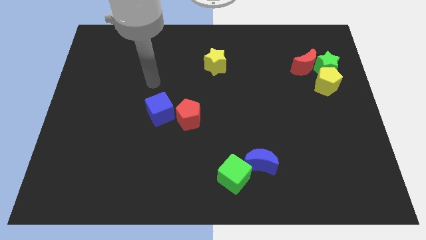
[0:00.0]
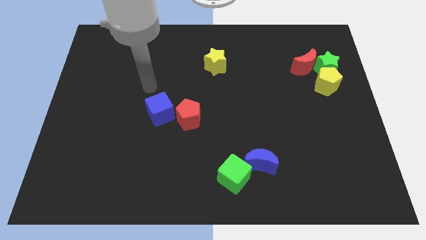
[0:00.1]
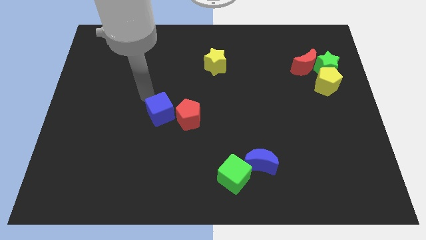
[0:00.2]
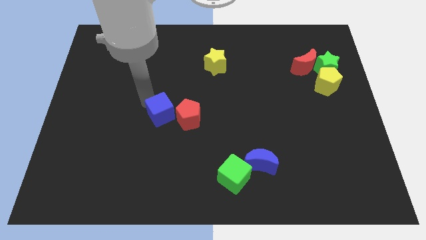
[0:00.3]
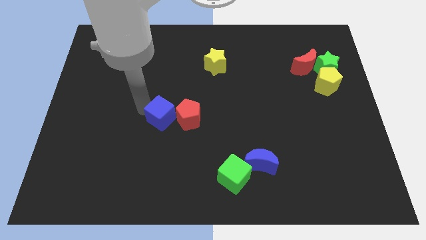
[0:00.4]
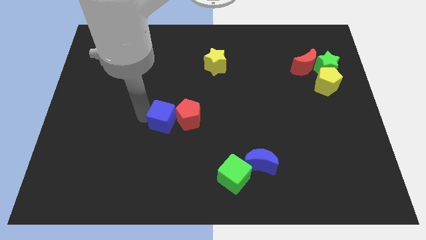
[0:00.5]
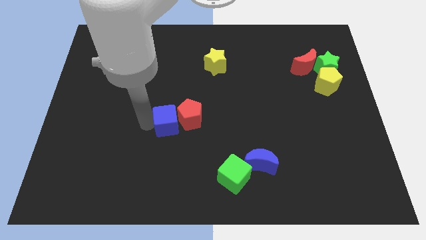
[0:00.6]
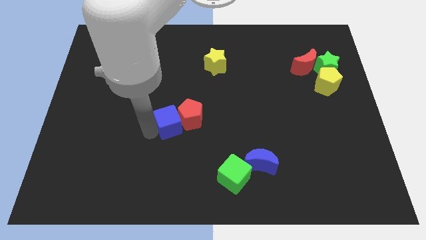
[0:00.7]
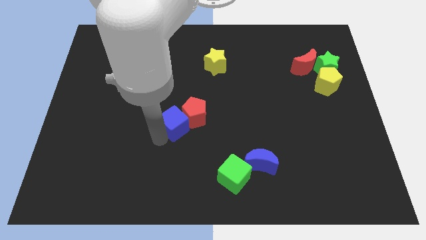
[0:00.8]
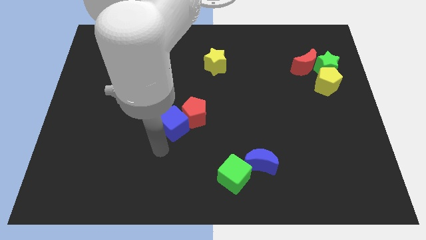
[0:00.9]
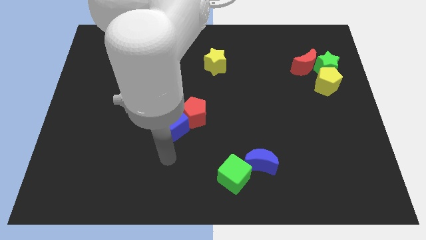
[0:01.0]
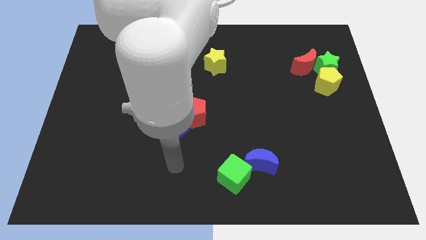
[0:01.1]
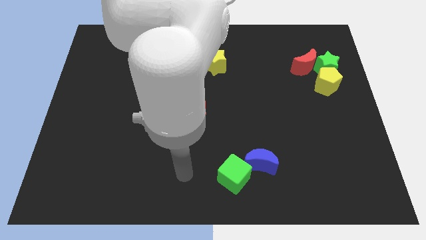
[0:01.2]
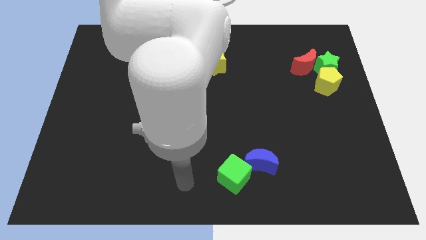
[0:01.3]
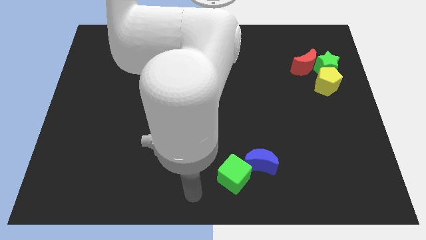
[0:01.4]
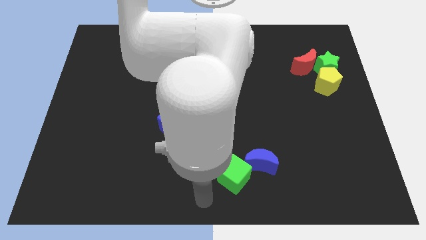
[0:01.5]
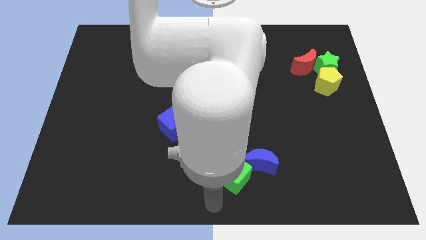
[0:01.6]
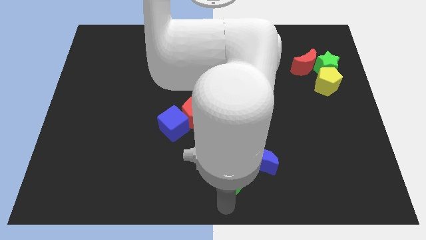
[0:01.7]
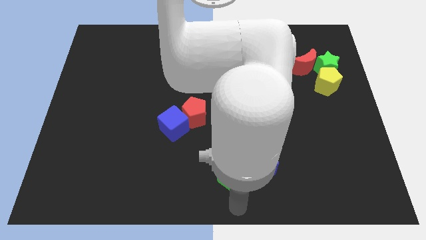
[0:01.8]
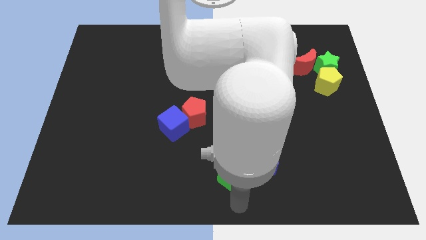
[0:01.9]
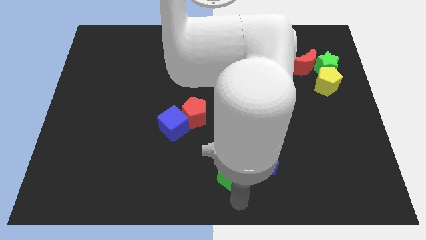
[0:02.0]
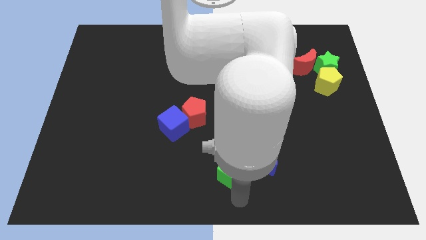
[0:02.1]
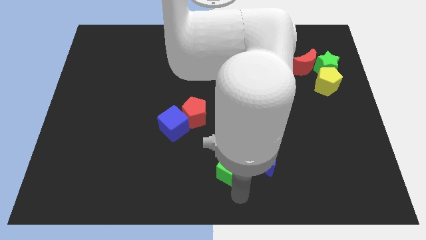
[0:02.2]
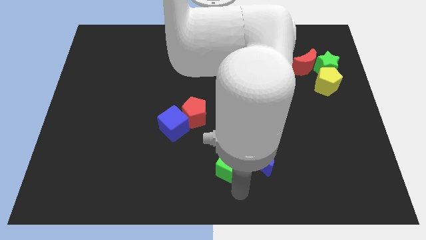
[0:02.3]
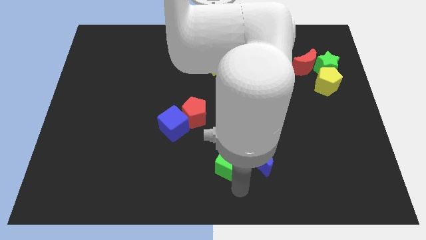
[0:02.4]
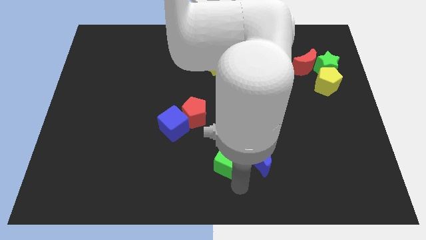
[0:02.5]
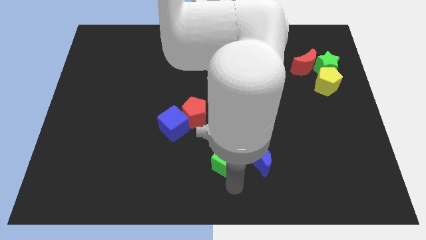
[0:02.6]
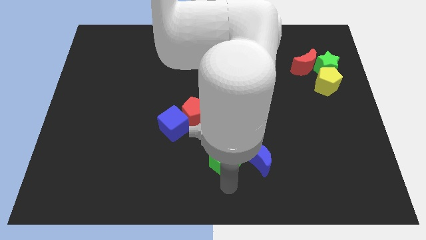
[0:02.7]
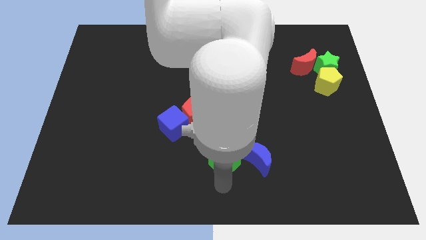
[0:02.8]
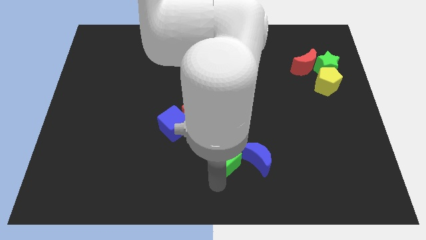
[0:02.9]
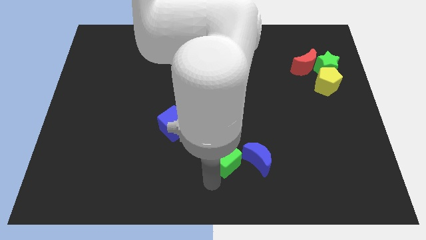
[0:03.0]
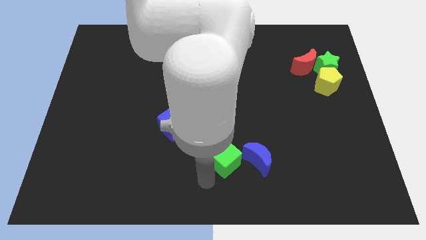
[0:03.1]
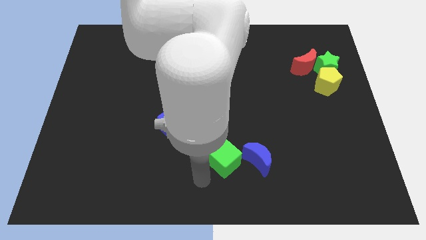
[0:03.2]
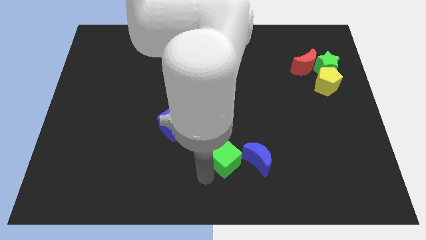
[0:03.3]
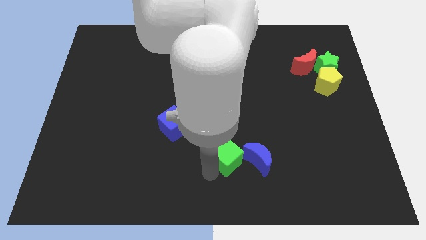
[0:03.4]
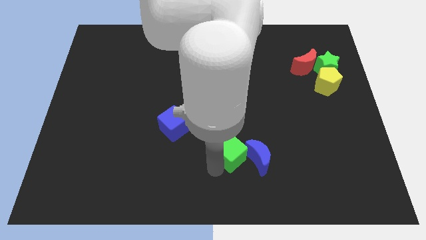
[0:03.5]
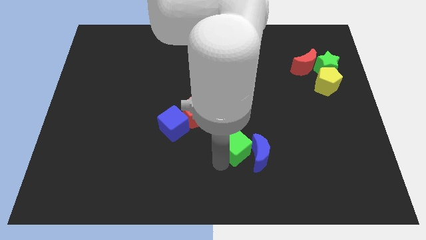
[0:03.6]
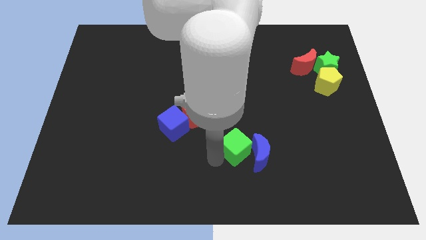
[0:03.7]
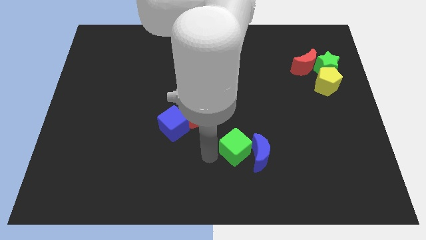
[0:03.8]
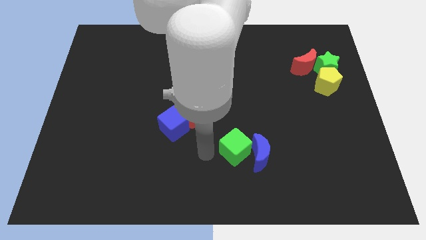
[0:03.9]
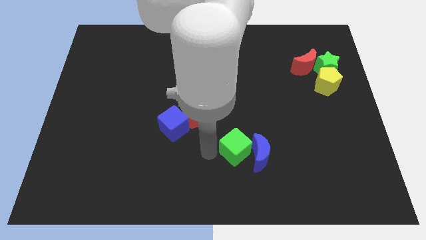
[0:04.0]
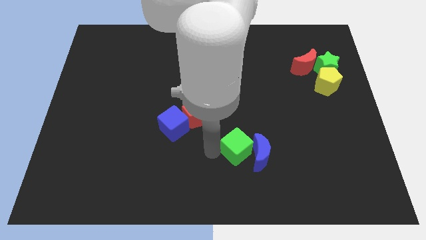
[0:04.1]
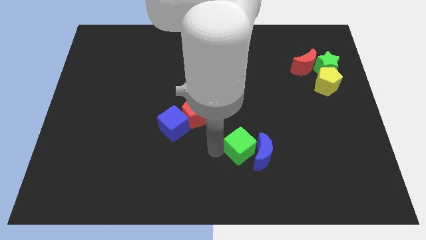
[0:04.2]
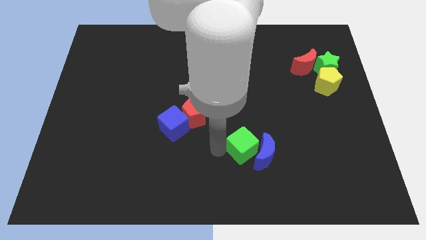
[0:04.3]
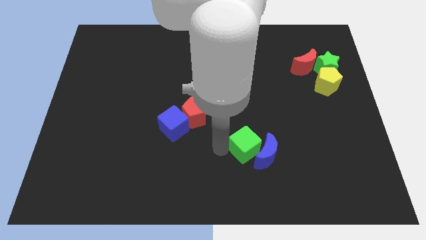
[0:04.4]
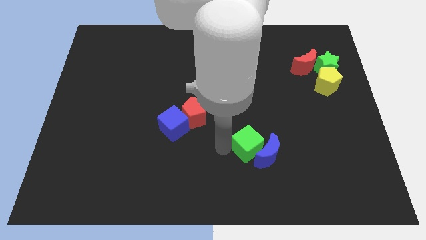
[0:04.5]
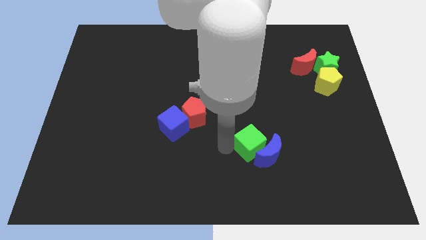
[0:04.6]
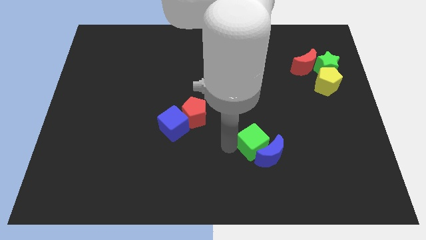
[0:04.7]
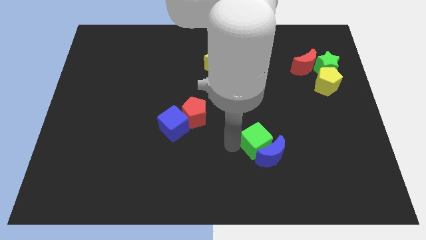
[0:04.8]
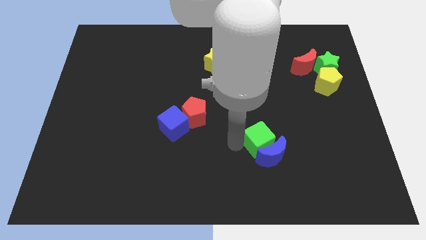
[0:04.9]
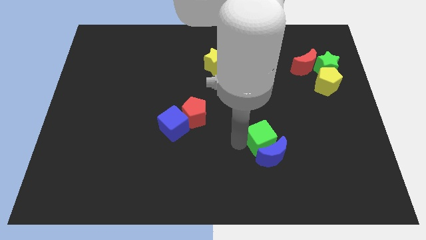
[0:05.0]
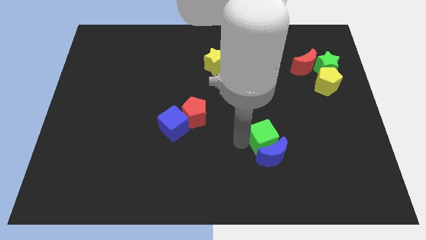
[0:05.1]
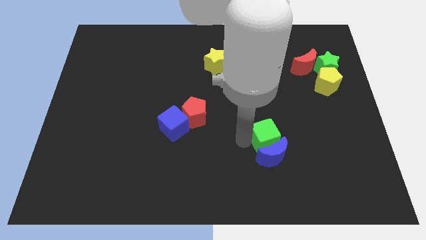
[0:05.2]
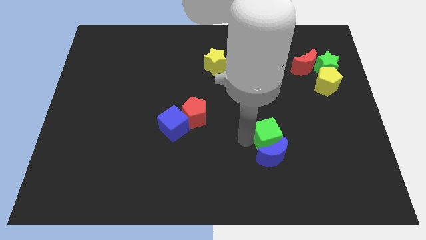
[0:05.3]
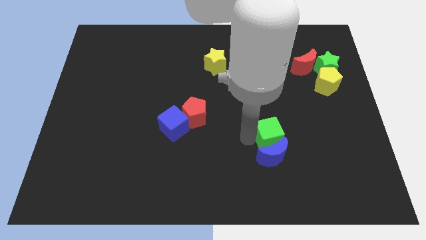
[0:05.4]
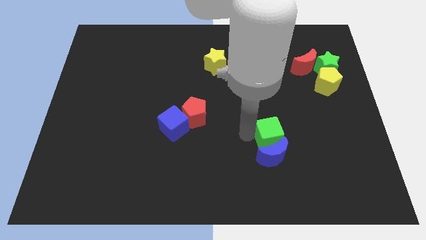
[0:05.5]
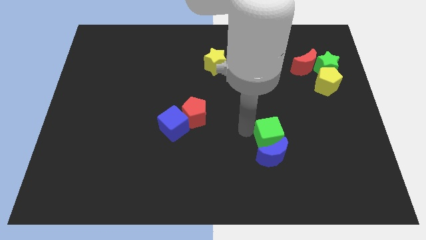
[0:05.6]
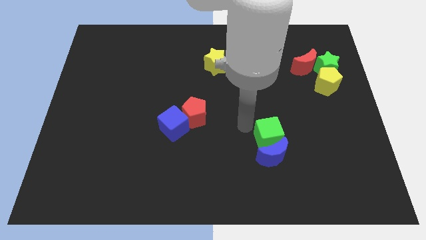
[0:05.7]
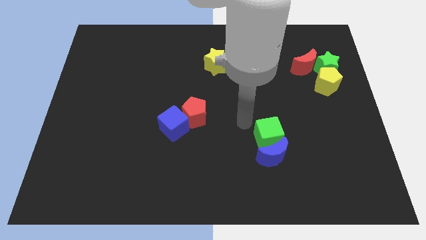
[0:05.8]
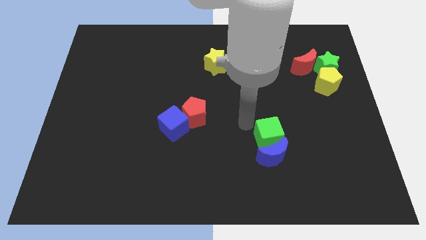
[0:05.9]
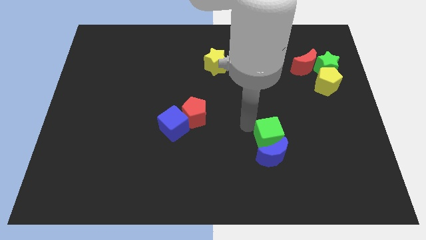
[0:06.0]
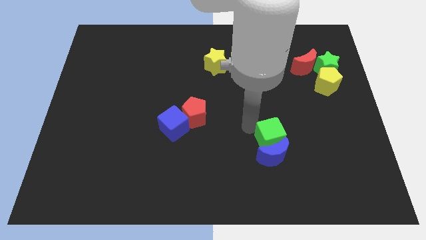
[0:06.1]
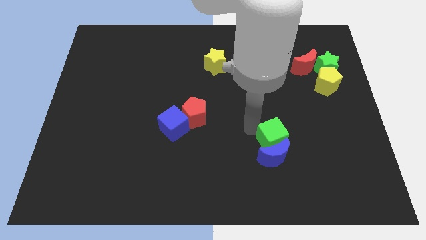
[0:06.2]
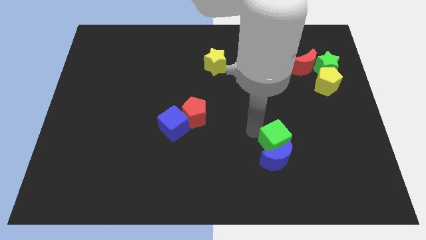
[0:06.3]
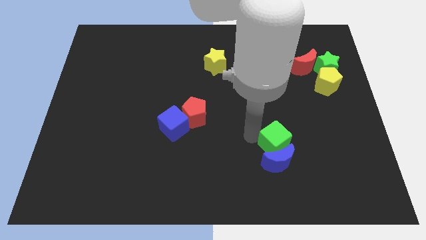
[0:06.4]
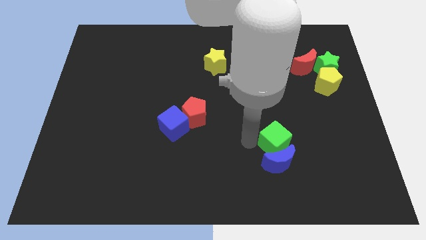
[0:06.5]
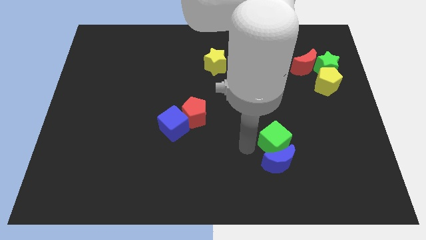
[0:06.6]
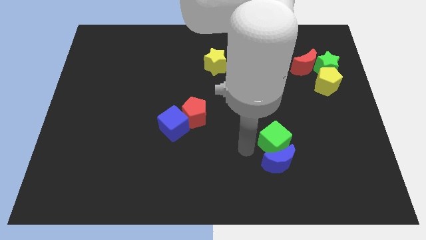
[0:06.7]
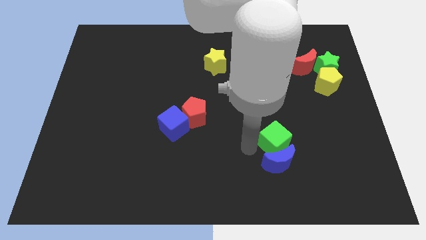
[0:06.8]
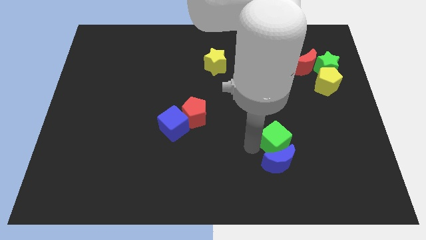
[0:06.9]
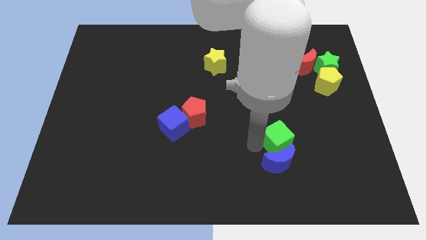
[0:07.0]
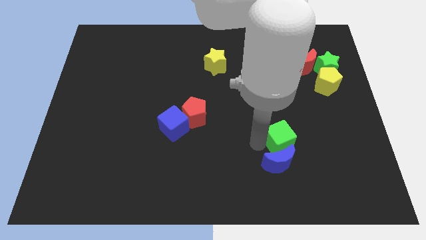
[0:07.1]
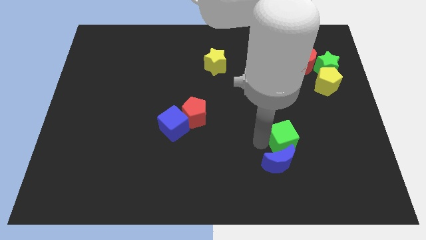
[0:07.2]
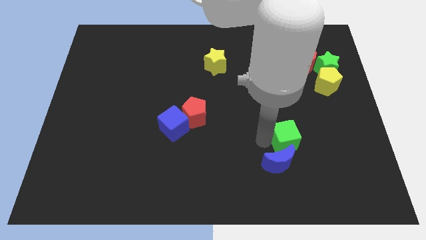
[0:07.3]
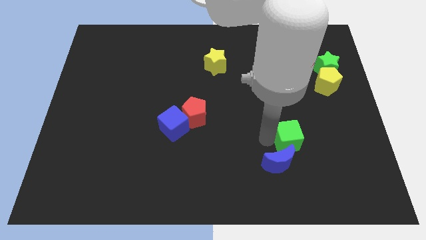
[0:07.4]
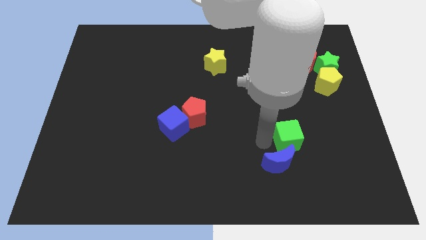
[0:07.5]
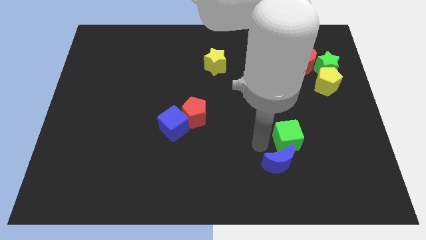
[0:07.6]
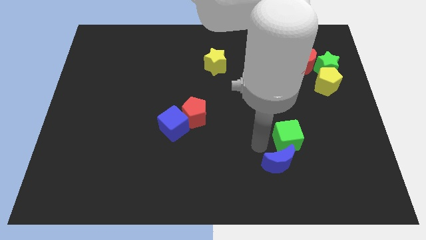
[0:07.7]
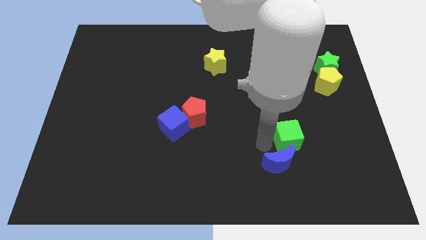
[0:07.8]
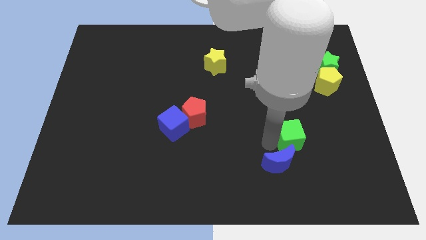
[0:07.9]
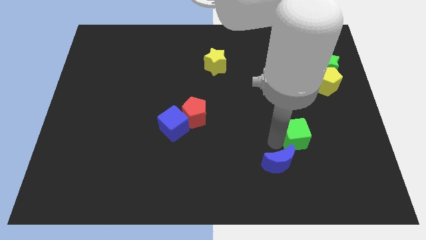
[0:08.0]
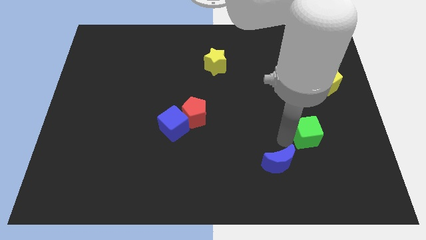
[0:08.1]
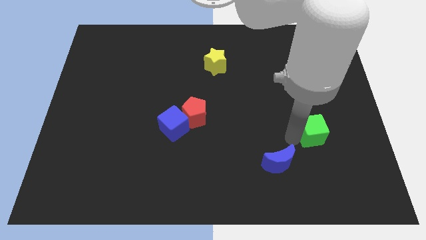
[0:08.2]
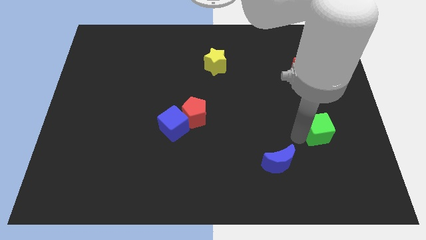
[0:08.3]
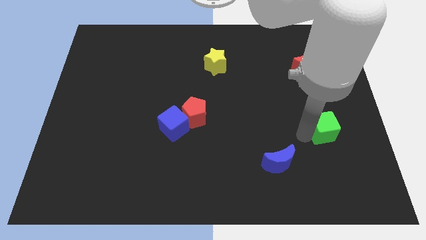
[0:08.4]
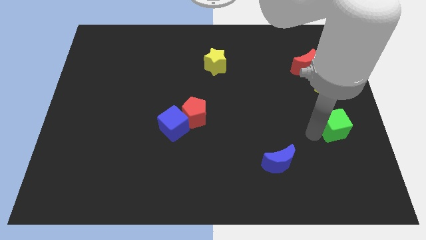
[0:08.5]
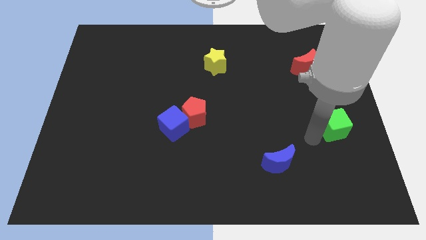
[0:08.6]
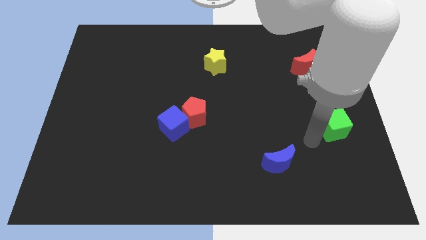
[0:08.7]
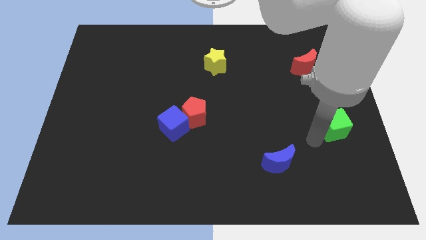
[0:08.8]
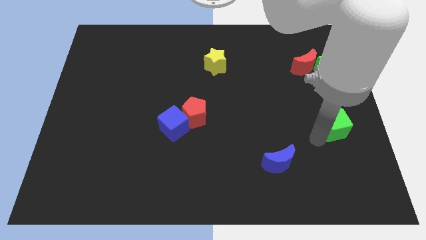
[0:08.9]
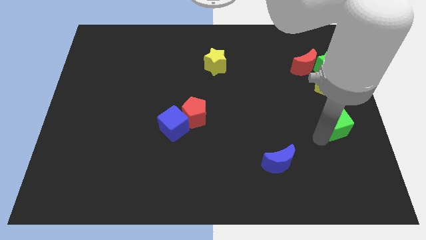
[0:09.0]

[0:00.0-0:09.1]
move the green cube to the right side of the board
